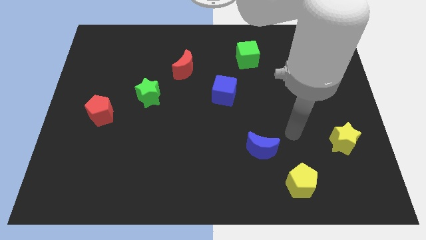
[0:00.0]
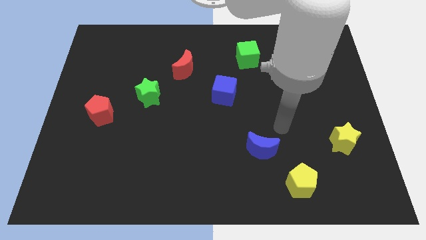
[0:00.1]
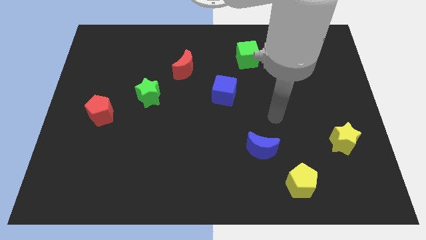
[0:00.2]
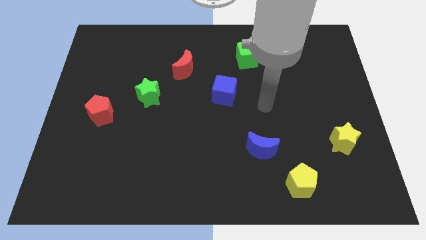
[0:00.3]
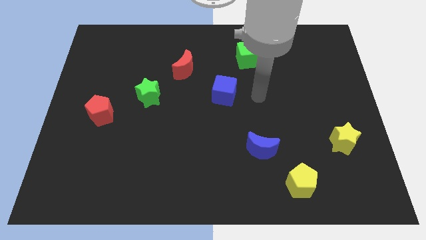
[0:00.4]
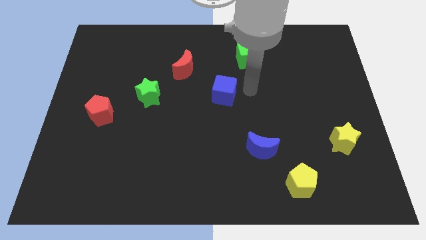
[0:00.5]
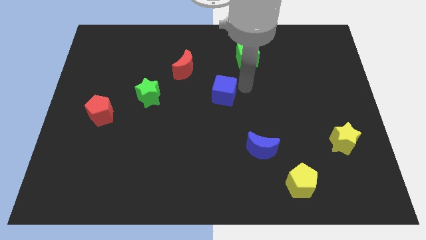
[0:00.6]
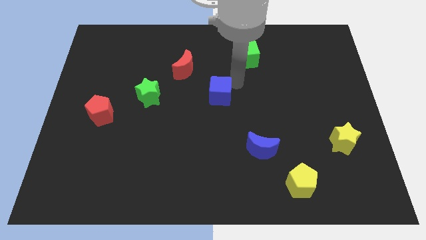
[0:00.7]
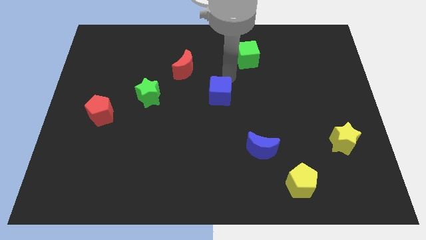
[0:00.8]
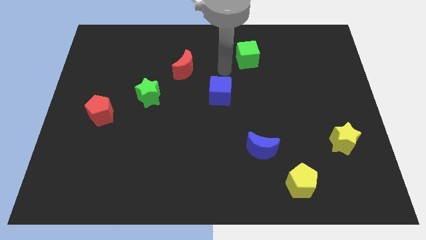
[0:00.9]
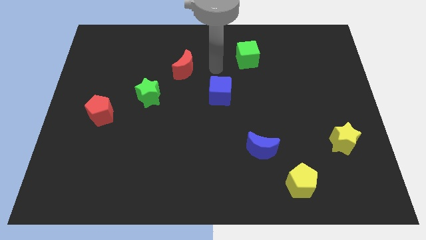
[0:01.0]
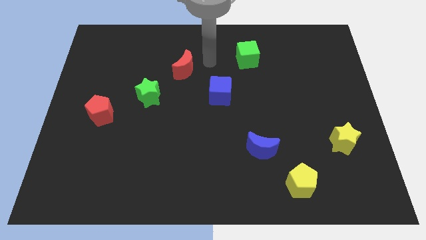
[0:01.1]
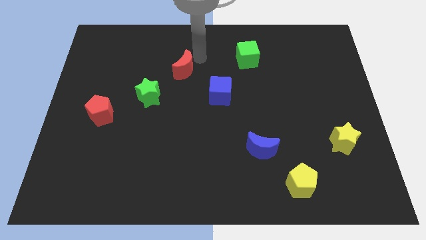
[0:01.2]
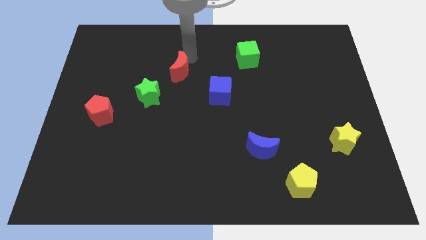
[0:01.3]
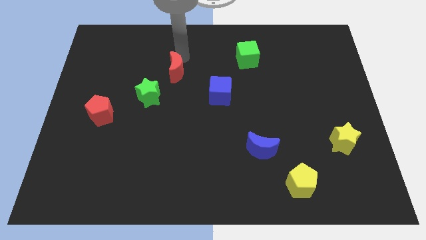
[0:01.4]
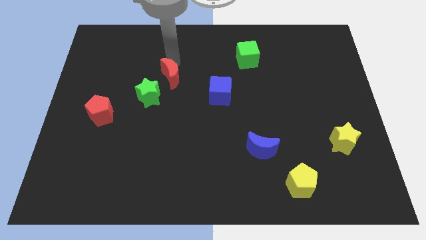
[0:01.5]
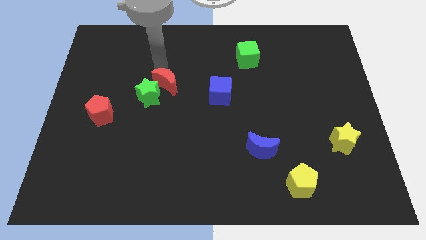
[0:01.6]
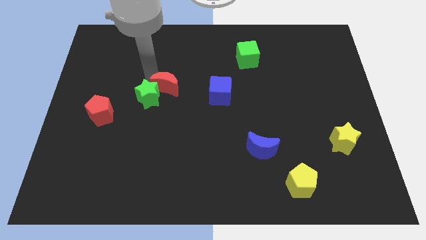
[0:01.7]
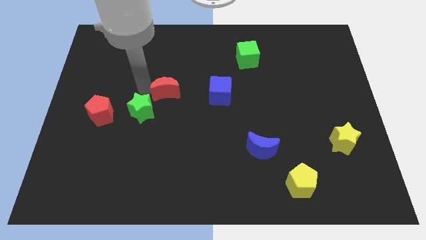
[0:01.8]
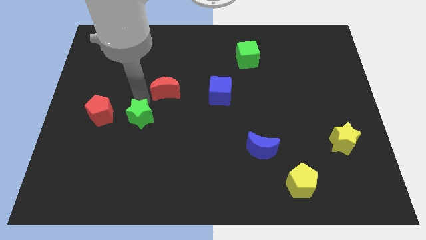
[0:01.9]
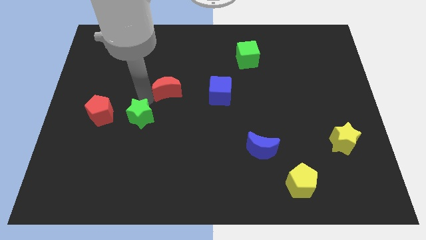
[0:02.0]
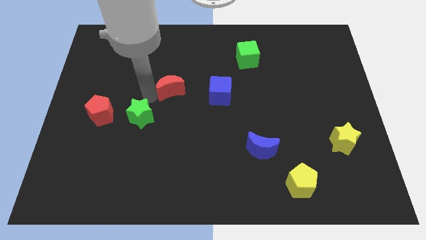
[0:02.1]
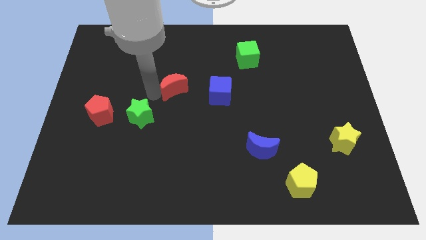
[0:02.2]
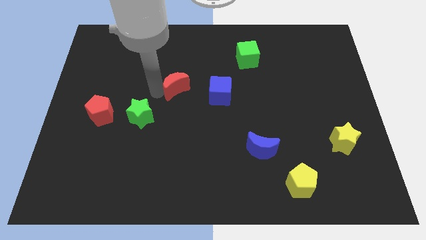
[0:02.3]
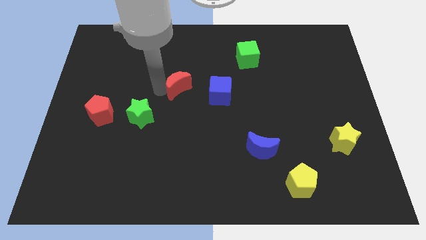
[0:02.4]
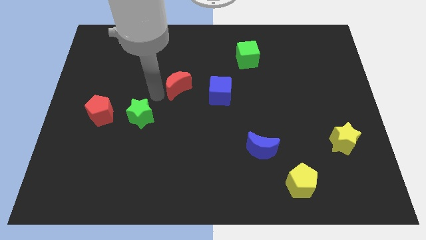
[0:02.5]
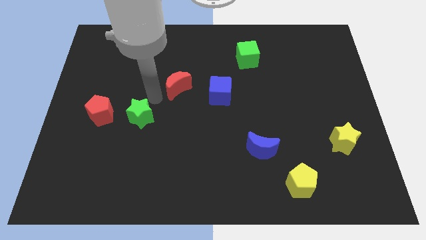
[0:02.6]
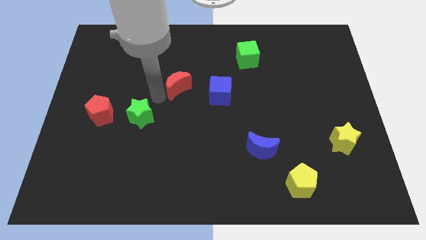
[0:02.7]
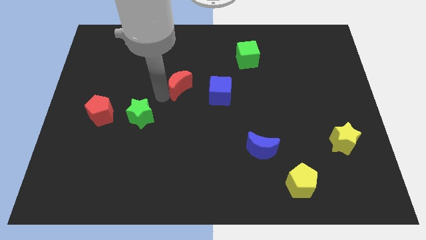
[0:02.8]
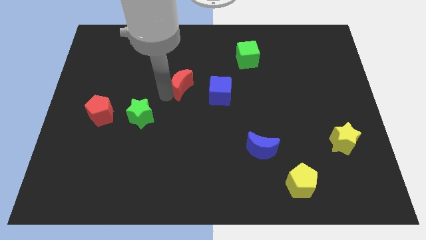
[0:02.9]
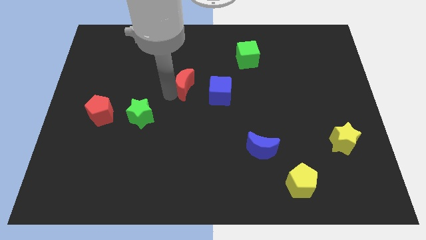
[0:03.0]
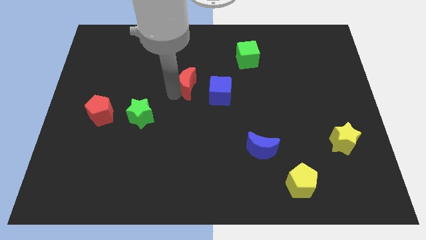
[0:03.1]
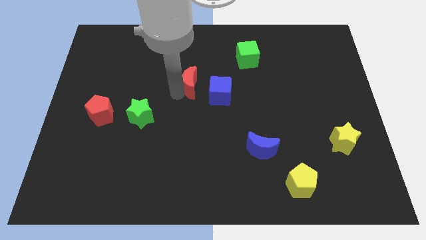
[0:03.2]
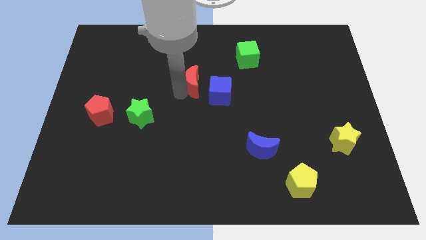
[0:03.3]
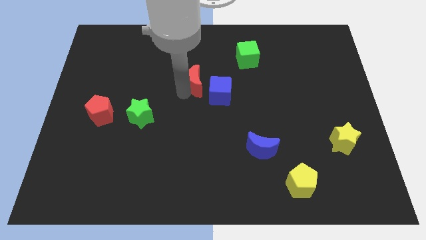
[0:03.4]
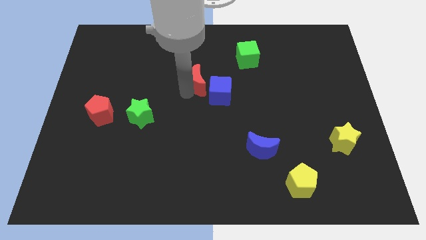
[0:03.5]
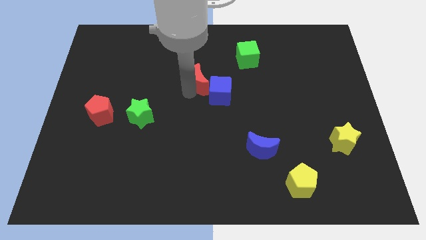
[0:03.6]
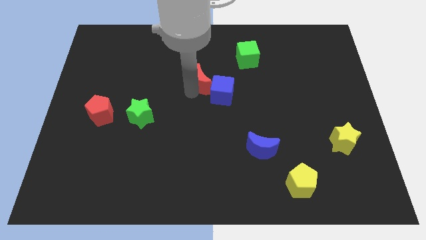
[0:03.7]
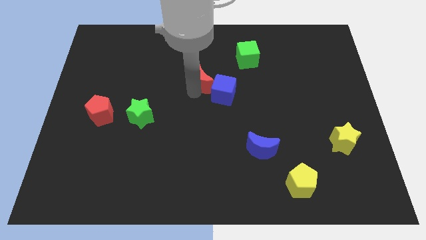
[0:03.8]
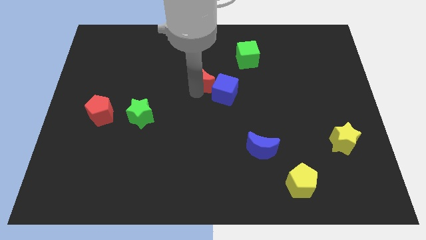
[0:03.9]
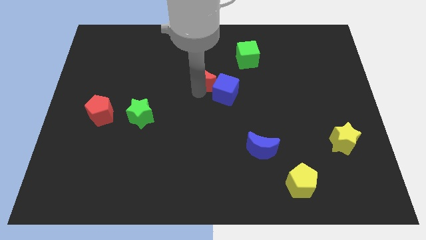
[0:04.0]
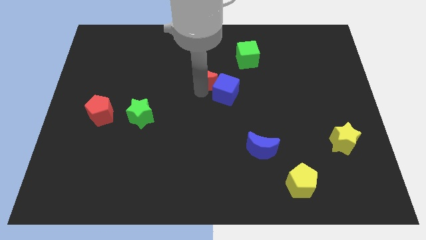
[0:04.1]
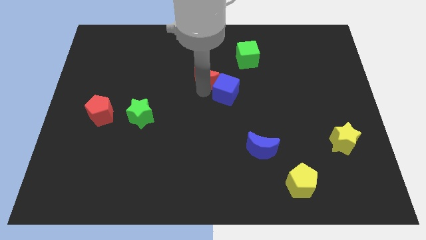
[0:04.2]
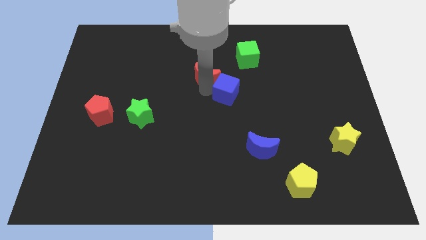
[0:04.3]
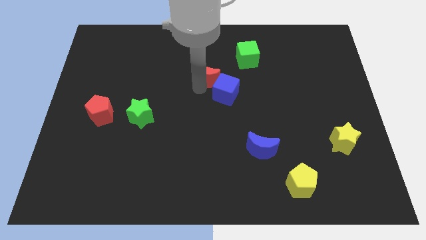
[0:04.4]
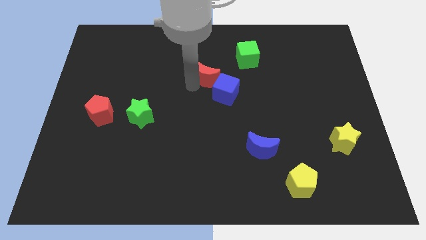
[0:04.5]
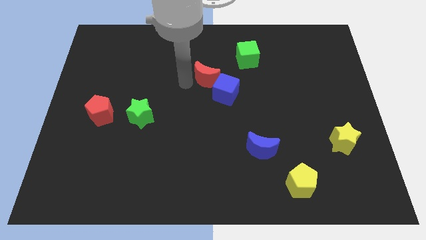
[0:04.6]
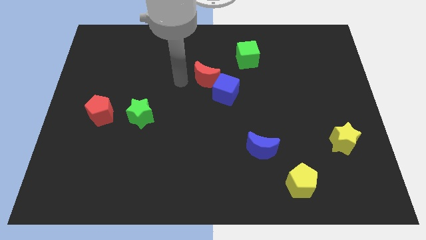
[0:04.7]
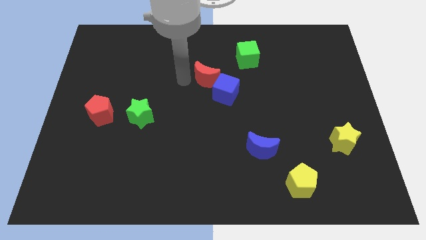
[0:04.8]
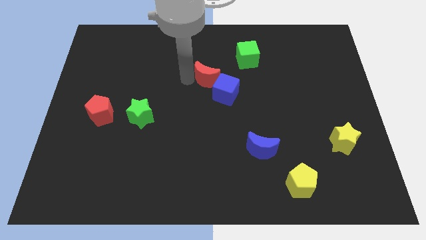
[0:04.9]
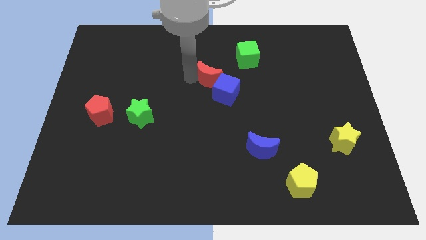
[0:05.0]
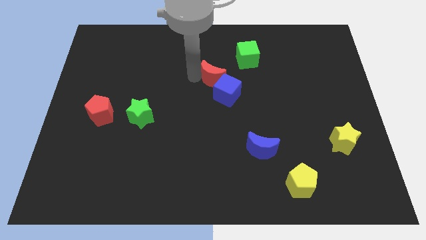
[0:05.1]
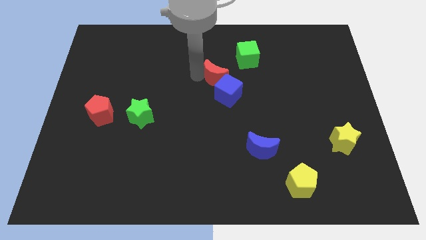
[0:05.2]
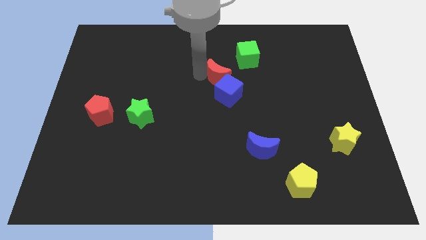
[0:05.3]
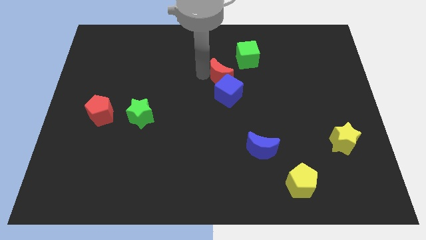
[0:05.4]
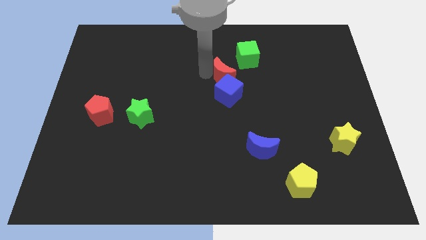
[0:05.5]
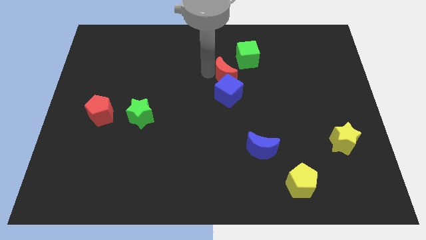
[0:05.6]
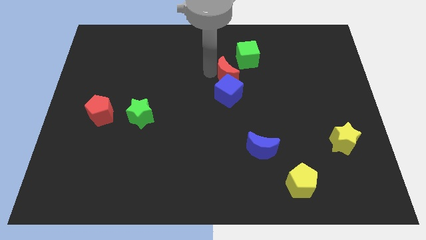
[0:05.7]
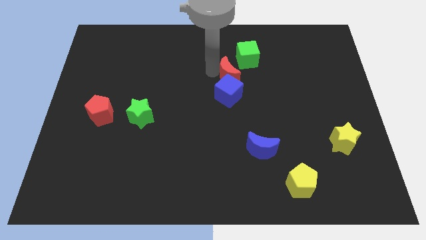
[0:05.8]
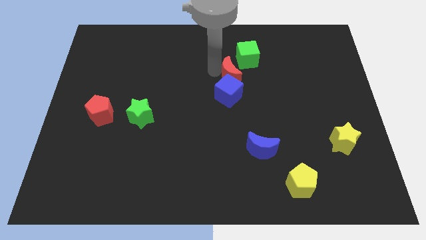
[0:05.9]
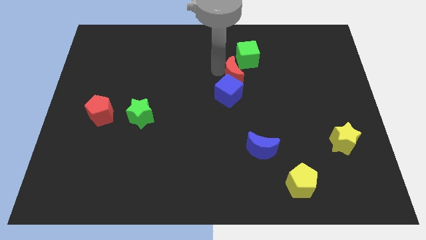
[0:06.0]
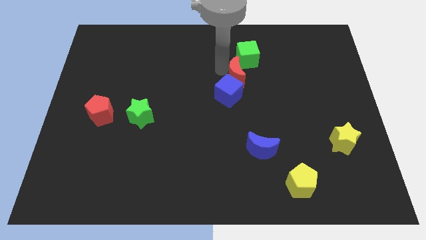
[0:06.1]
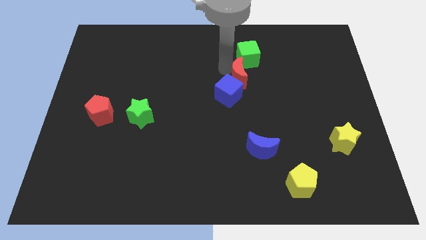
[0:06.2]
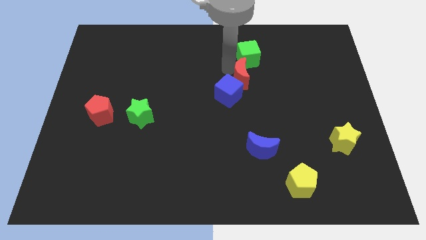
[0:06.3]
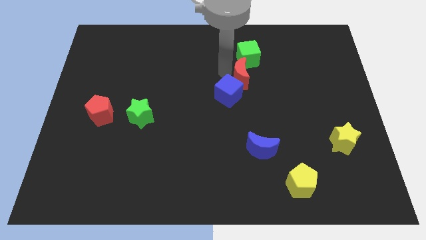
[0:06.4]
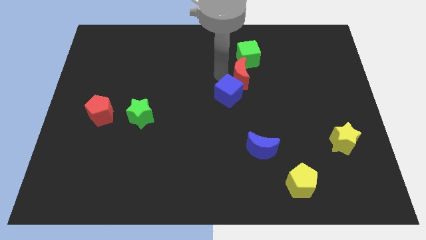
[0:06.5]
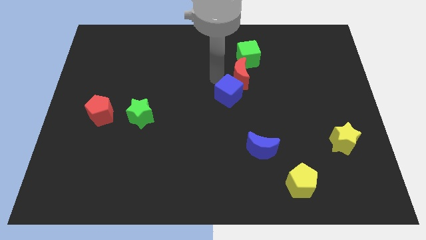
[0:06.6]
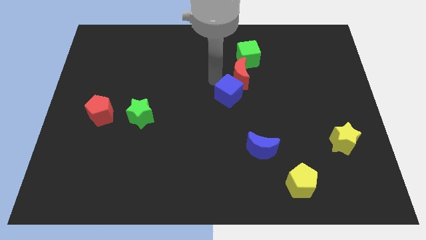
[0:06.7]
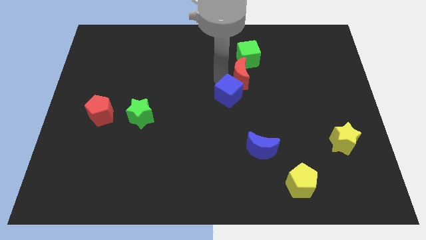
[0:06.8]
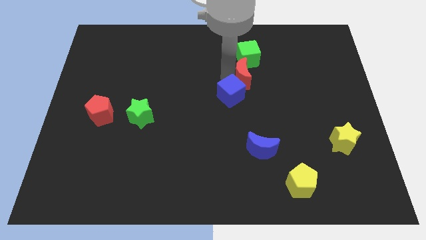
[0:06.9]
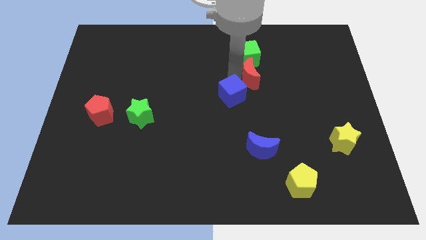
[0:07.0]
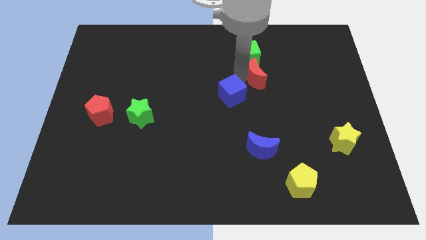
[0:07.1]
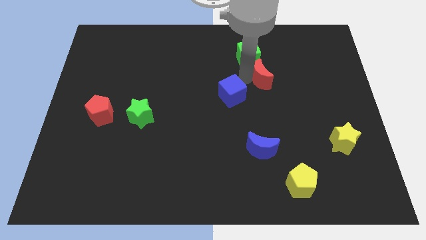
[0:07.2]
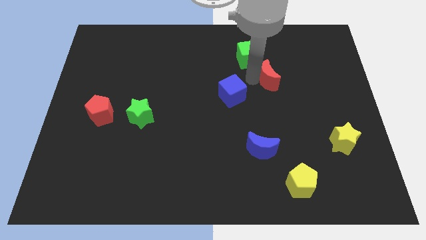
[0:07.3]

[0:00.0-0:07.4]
push the red moon right
